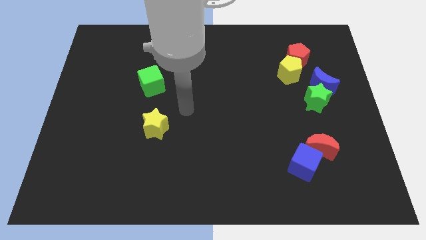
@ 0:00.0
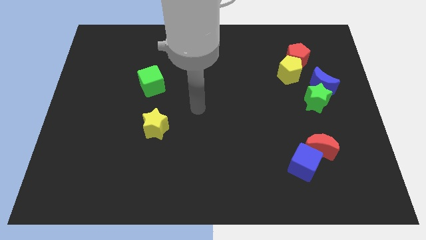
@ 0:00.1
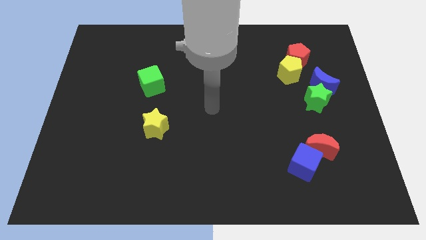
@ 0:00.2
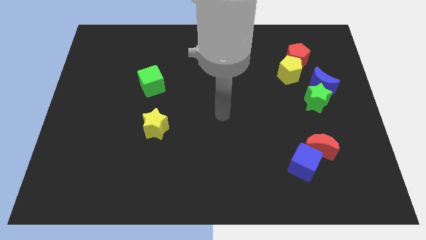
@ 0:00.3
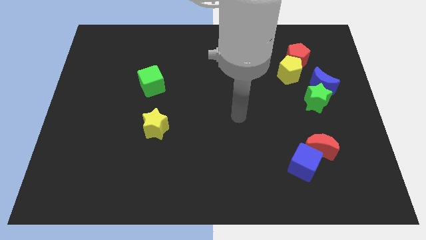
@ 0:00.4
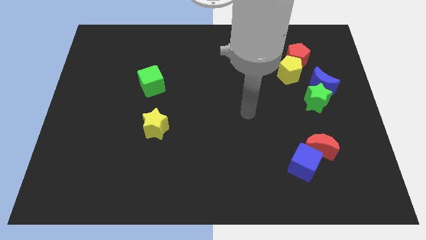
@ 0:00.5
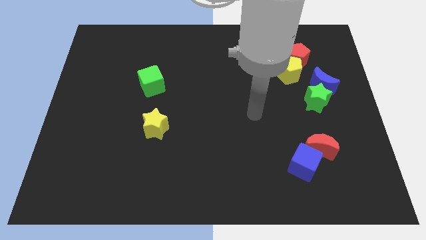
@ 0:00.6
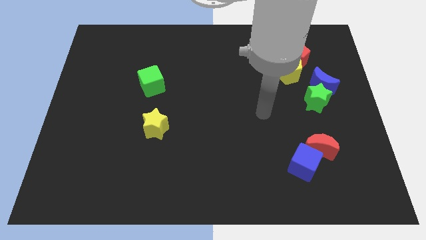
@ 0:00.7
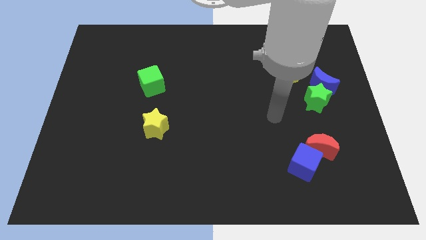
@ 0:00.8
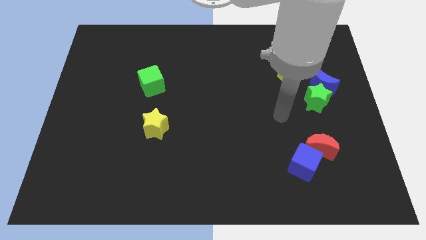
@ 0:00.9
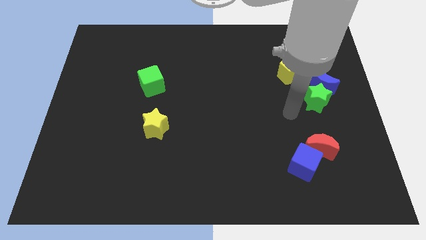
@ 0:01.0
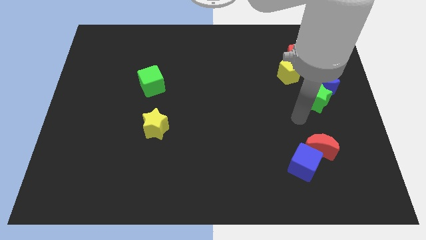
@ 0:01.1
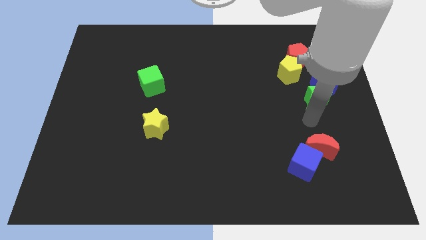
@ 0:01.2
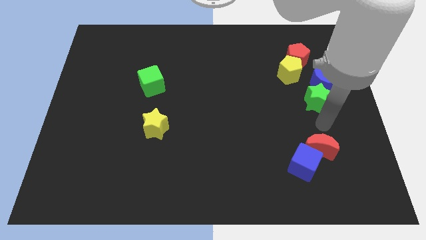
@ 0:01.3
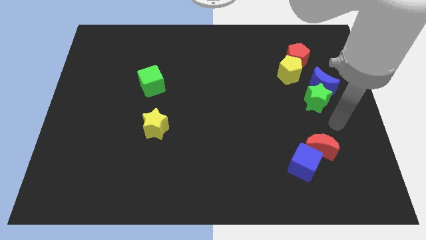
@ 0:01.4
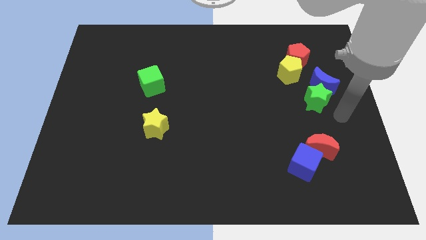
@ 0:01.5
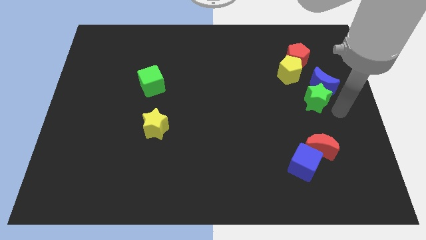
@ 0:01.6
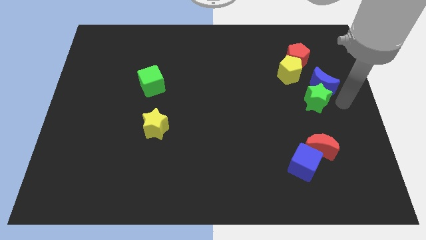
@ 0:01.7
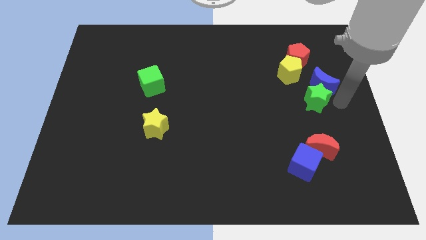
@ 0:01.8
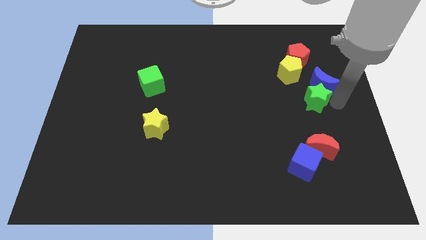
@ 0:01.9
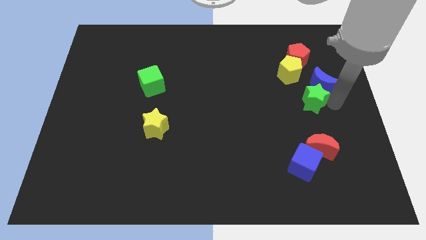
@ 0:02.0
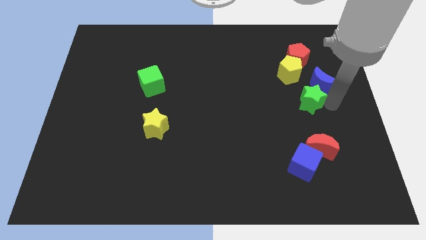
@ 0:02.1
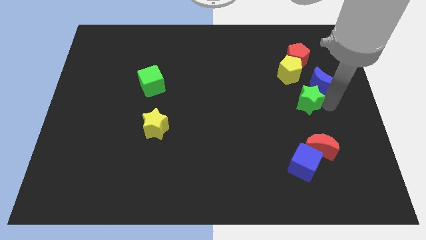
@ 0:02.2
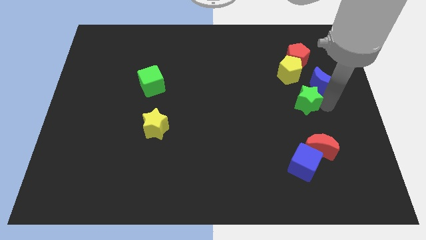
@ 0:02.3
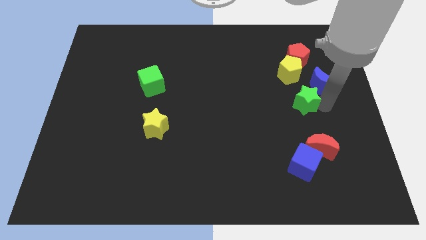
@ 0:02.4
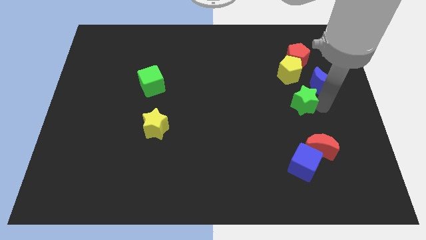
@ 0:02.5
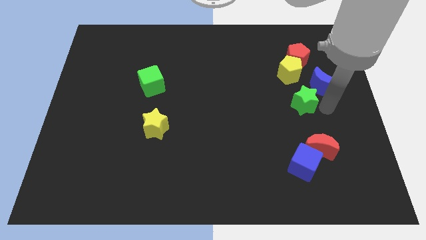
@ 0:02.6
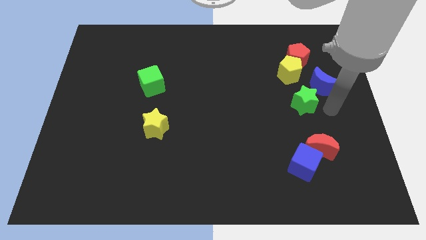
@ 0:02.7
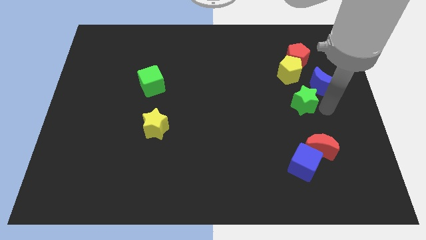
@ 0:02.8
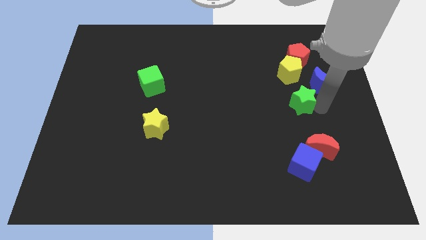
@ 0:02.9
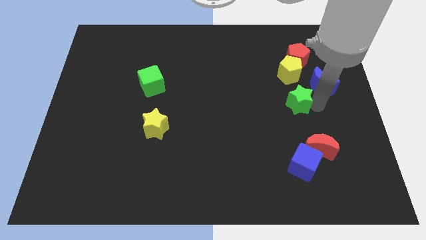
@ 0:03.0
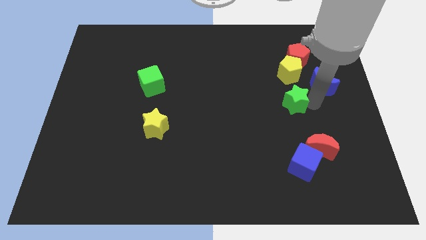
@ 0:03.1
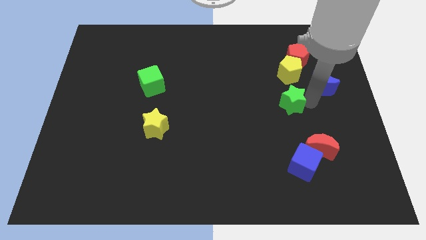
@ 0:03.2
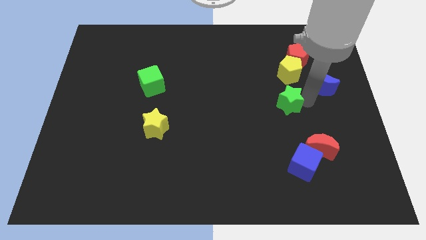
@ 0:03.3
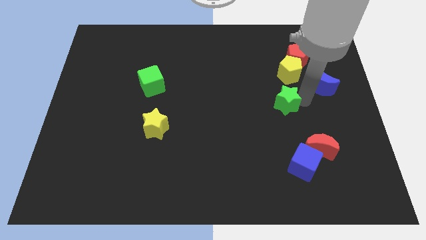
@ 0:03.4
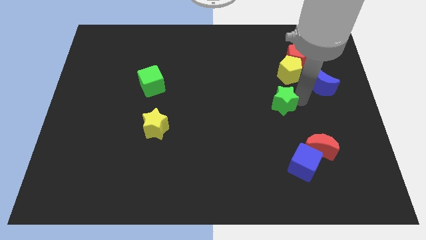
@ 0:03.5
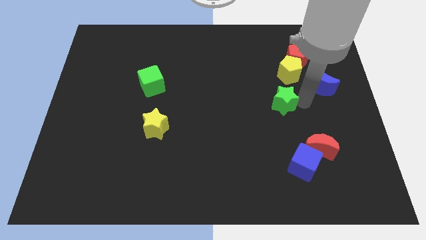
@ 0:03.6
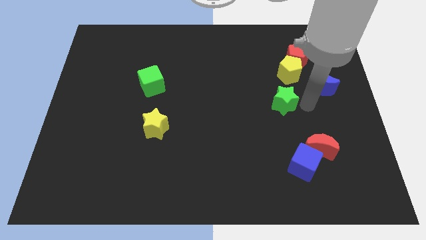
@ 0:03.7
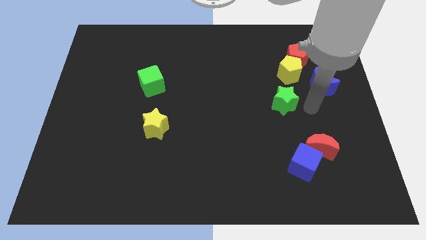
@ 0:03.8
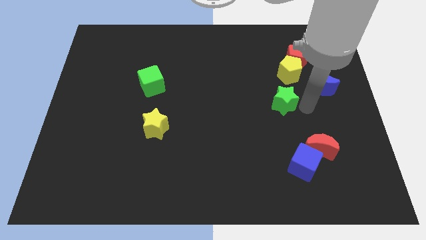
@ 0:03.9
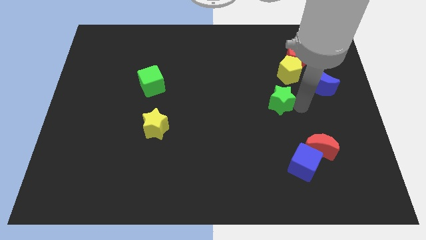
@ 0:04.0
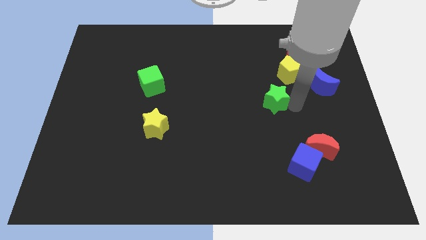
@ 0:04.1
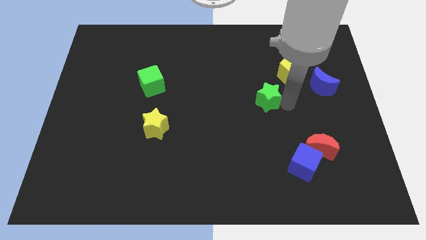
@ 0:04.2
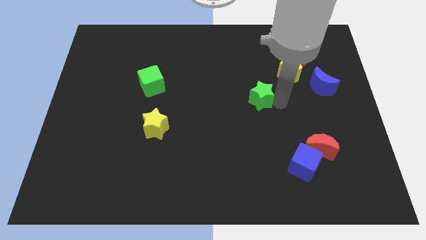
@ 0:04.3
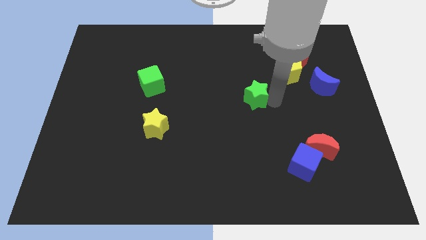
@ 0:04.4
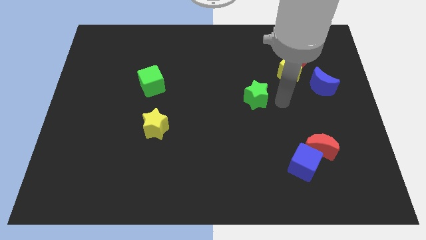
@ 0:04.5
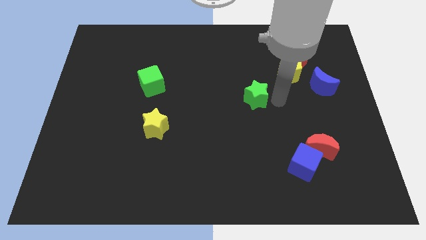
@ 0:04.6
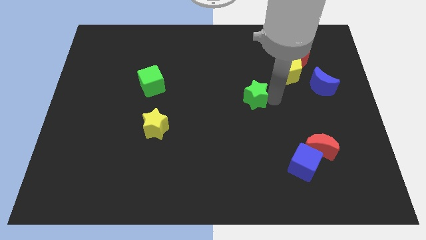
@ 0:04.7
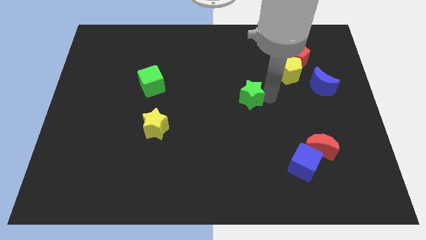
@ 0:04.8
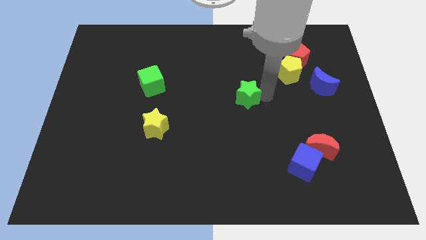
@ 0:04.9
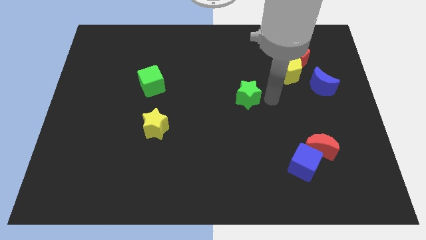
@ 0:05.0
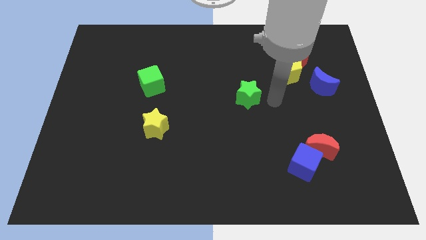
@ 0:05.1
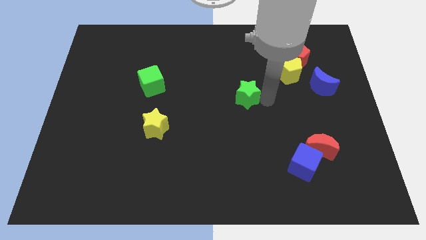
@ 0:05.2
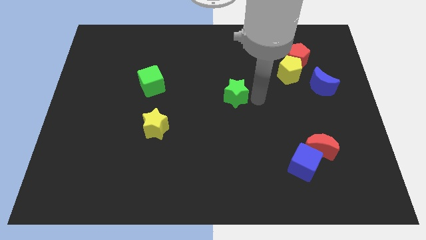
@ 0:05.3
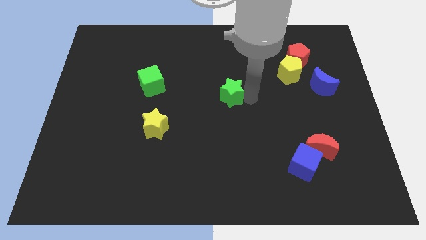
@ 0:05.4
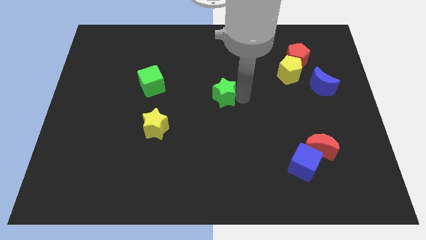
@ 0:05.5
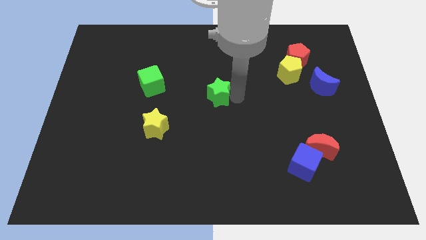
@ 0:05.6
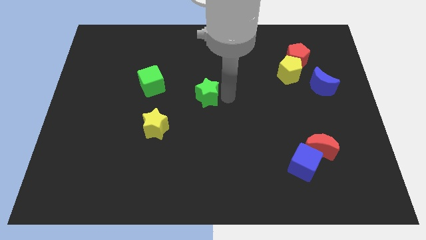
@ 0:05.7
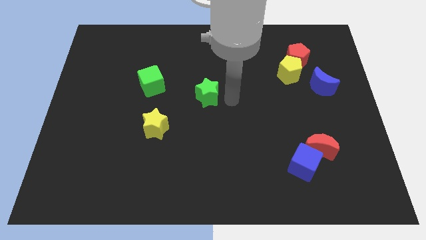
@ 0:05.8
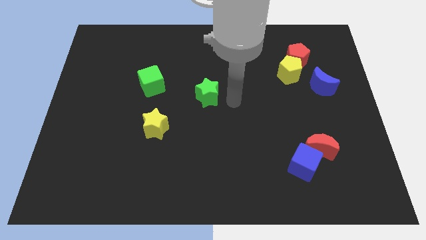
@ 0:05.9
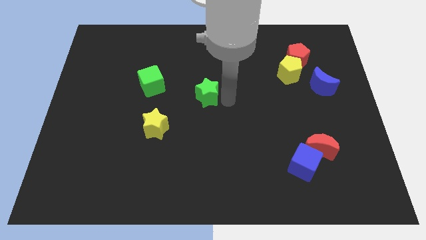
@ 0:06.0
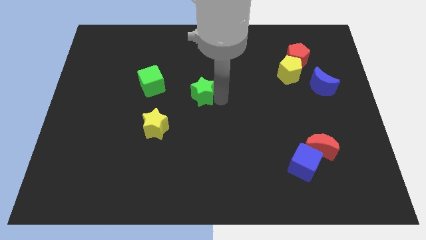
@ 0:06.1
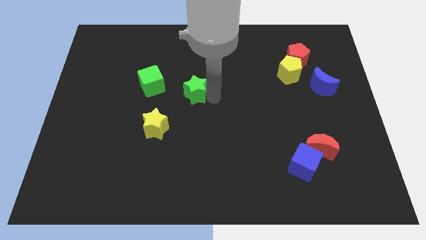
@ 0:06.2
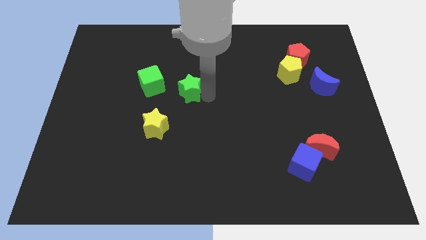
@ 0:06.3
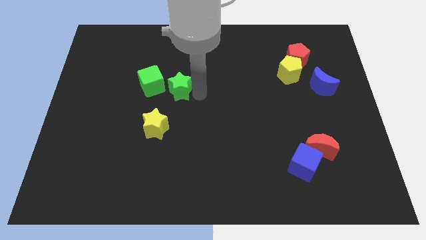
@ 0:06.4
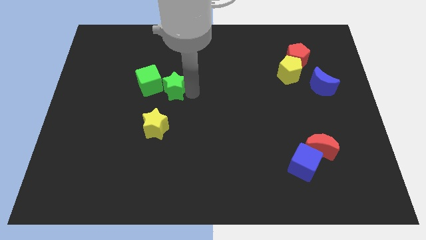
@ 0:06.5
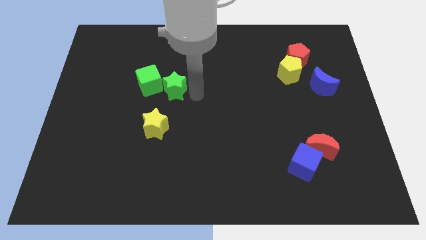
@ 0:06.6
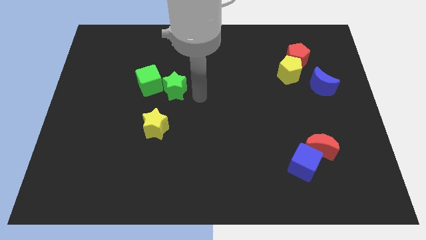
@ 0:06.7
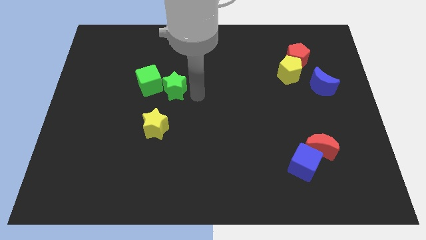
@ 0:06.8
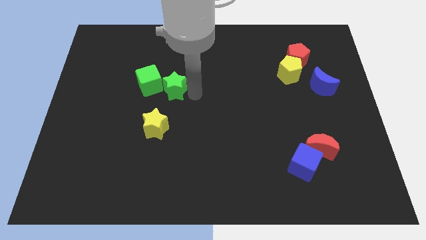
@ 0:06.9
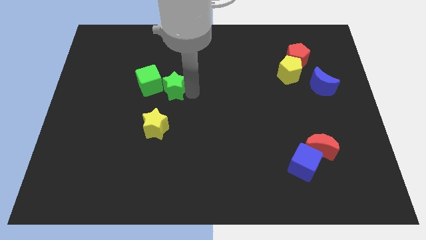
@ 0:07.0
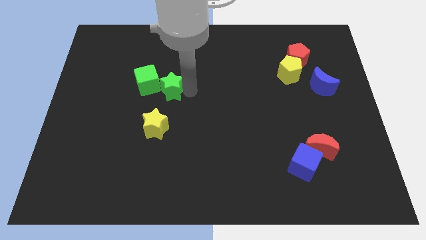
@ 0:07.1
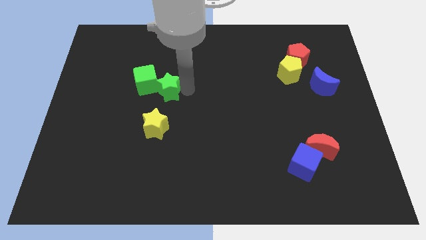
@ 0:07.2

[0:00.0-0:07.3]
slide the green star to the green cube
